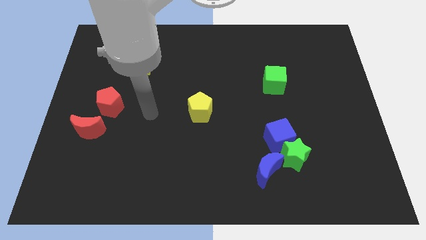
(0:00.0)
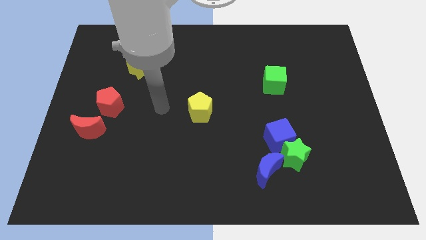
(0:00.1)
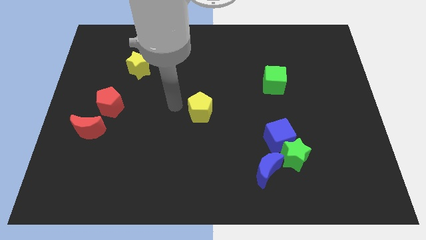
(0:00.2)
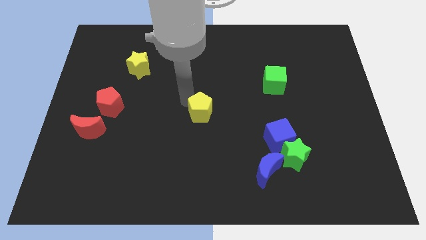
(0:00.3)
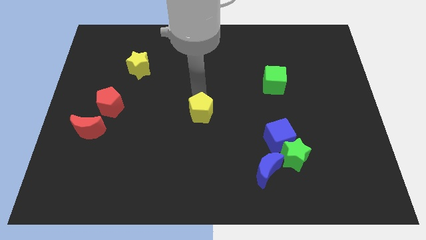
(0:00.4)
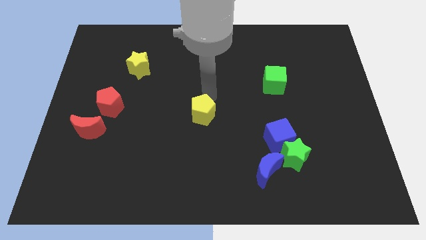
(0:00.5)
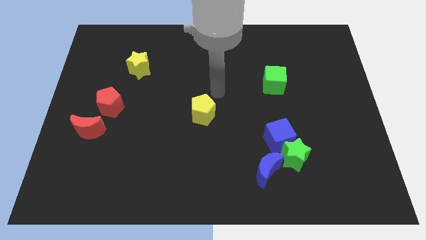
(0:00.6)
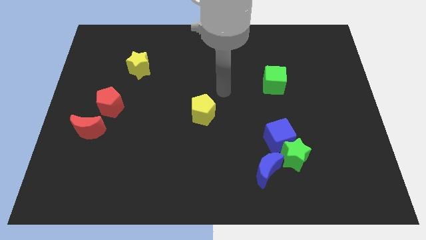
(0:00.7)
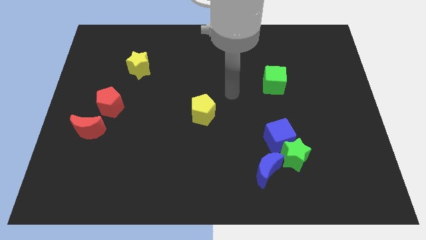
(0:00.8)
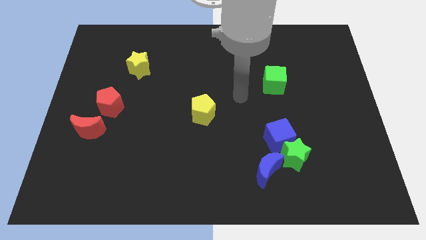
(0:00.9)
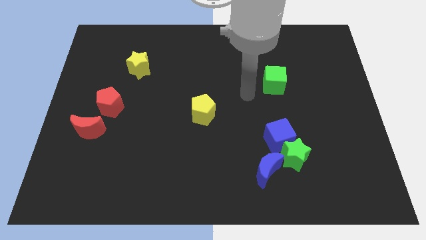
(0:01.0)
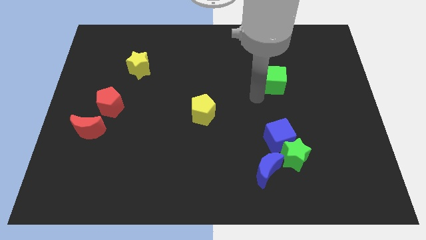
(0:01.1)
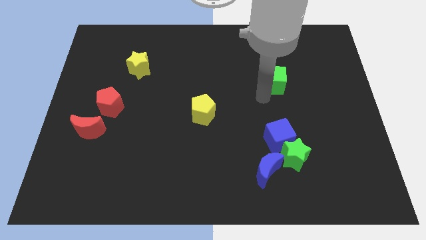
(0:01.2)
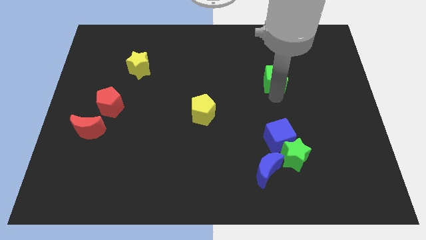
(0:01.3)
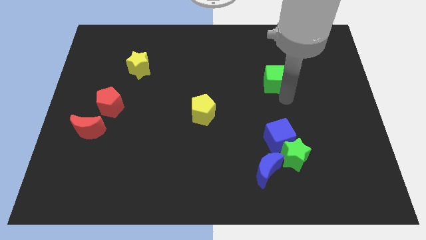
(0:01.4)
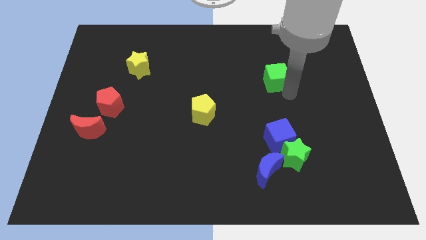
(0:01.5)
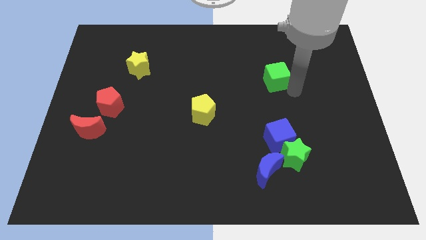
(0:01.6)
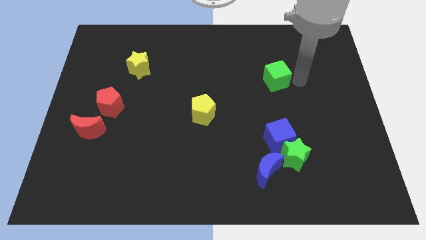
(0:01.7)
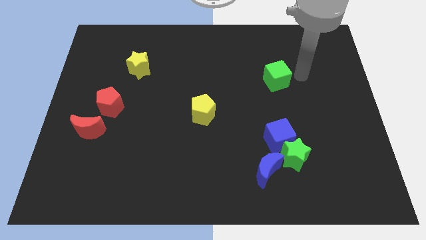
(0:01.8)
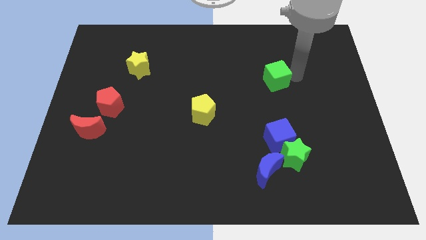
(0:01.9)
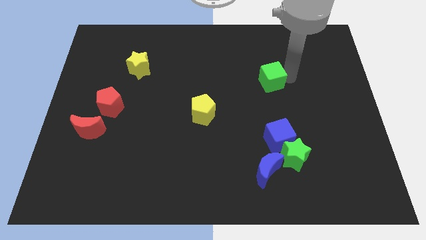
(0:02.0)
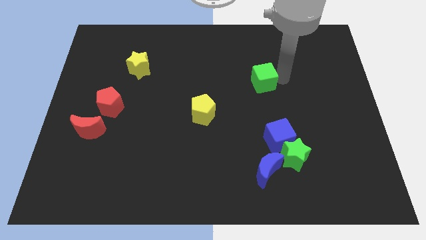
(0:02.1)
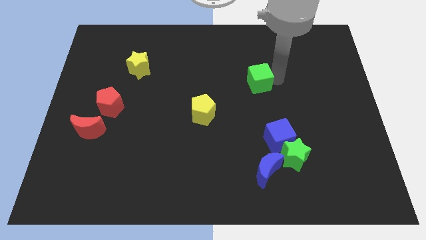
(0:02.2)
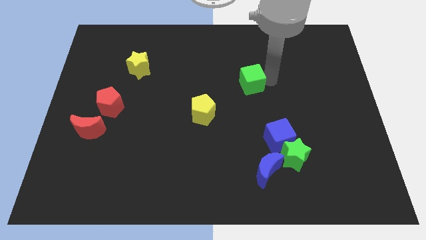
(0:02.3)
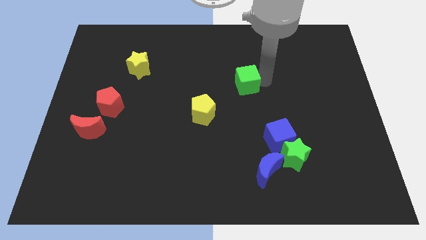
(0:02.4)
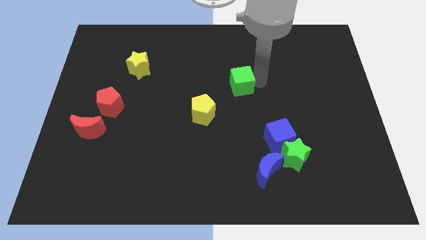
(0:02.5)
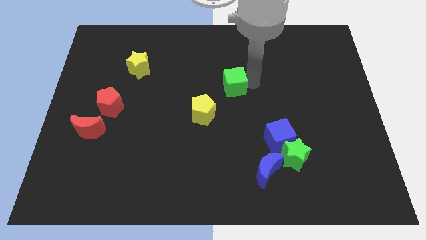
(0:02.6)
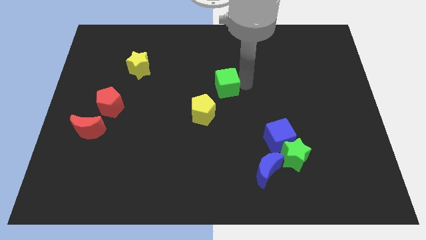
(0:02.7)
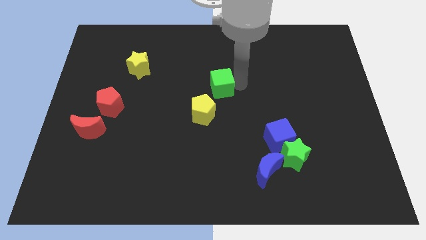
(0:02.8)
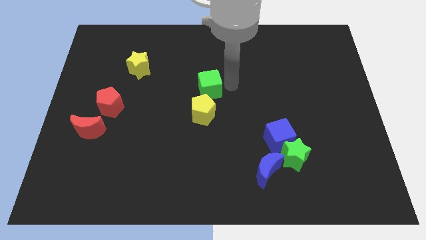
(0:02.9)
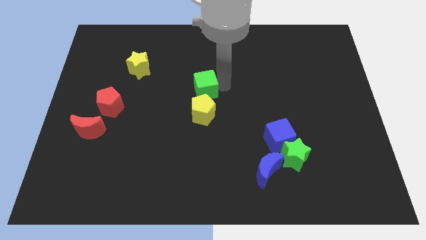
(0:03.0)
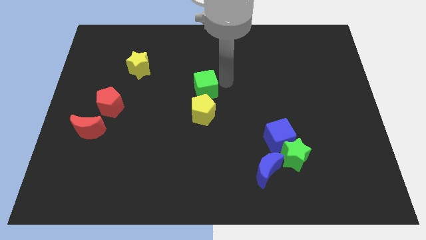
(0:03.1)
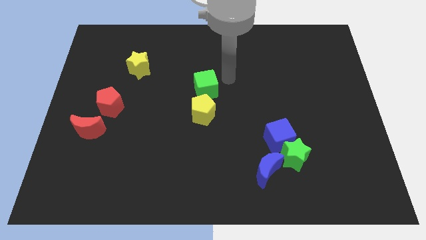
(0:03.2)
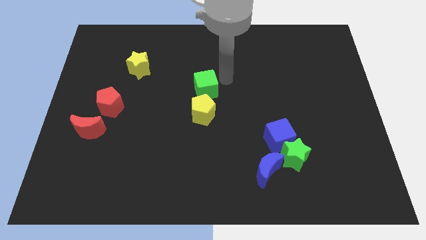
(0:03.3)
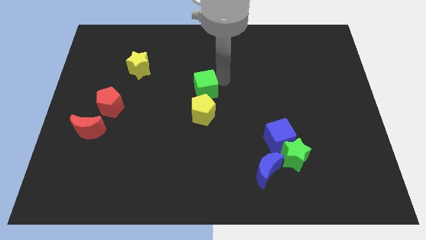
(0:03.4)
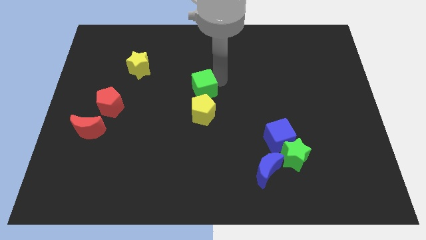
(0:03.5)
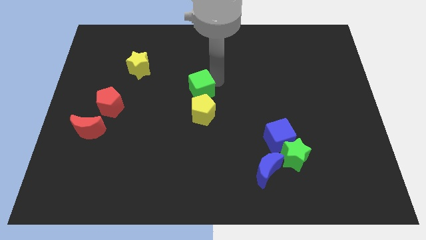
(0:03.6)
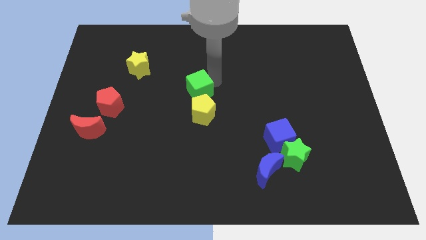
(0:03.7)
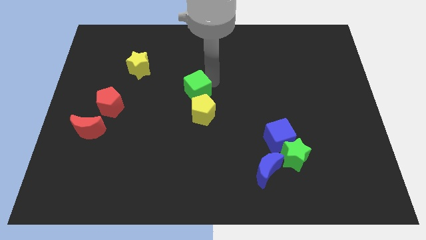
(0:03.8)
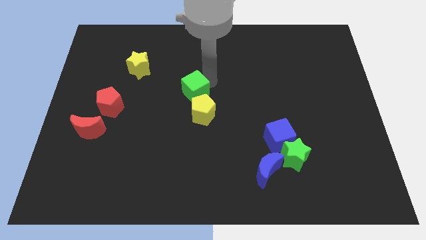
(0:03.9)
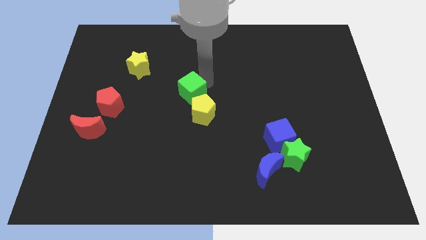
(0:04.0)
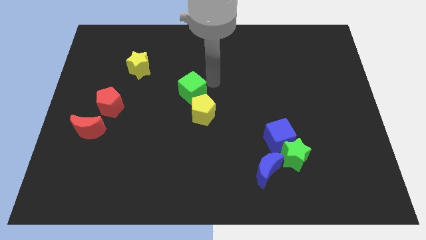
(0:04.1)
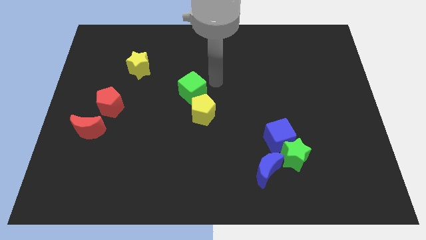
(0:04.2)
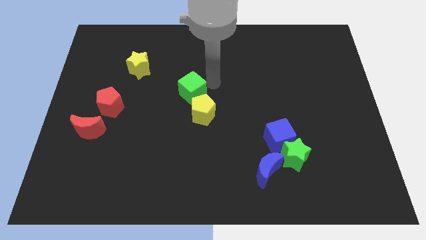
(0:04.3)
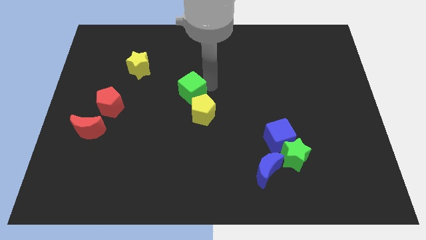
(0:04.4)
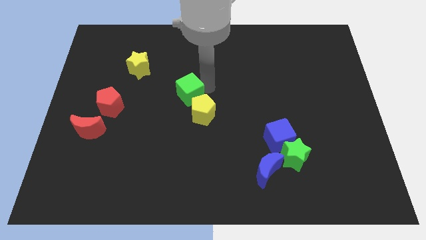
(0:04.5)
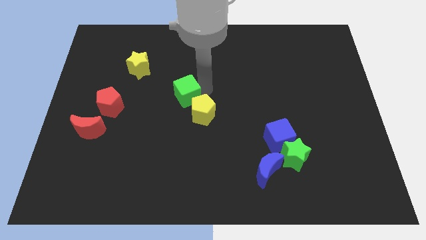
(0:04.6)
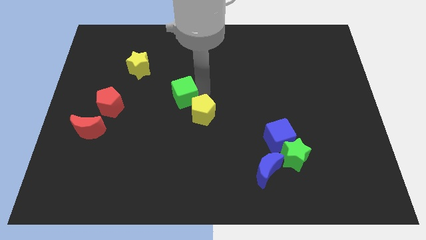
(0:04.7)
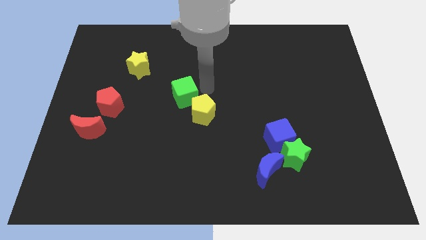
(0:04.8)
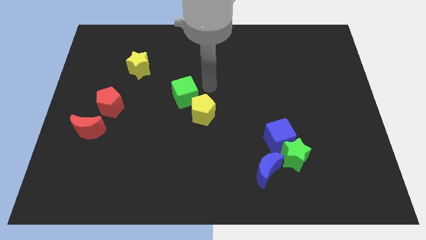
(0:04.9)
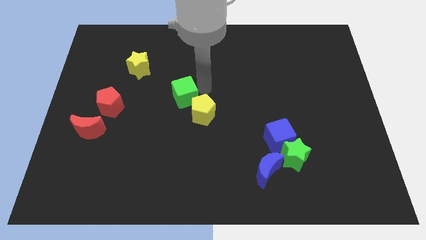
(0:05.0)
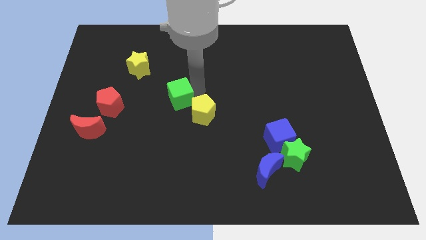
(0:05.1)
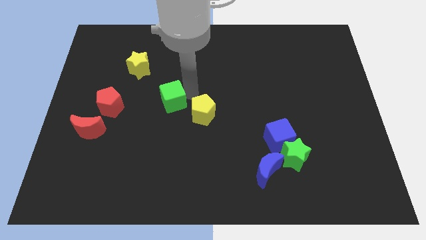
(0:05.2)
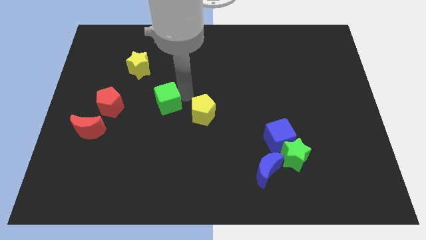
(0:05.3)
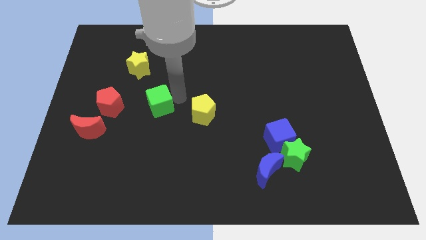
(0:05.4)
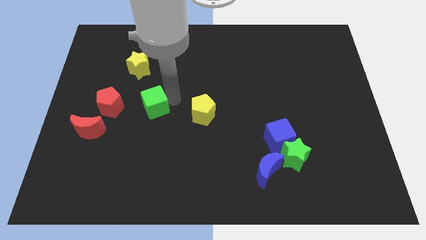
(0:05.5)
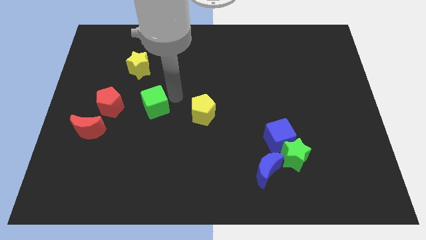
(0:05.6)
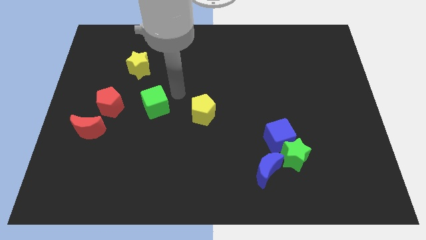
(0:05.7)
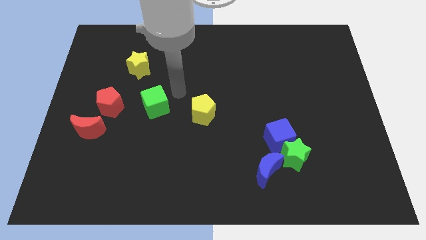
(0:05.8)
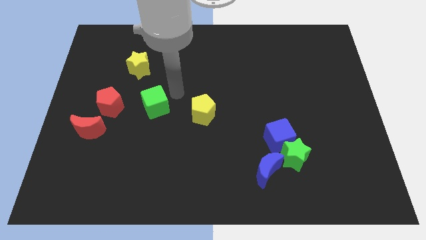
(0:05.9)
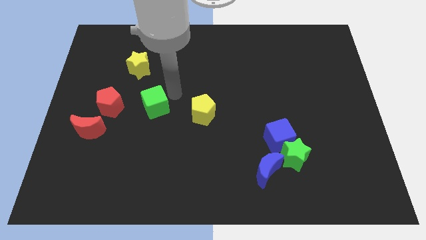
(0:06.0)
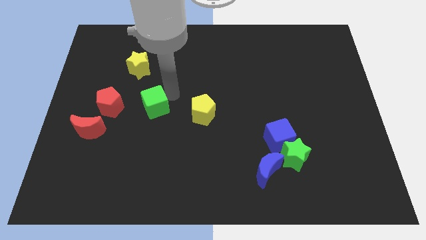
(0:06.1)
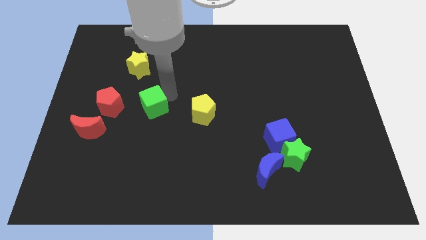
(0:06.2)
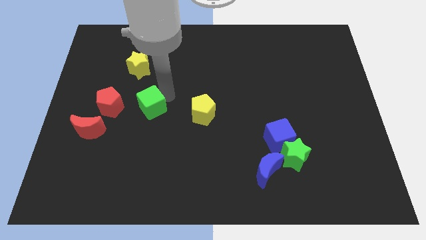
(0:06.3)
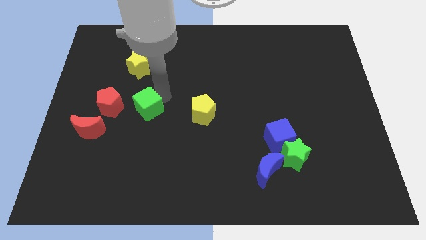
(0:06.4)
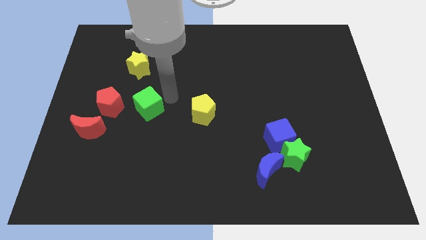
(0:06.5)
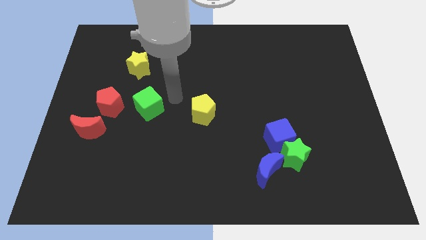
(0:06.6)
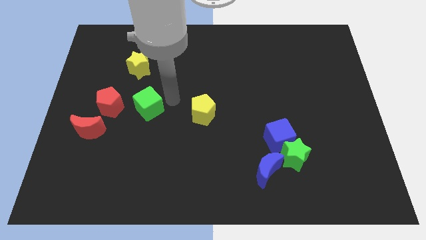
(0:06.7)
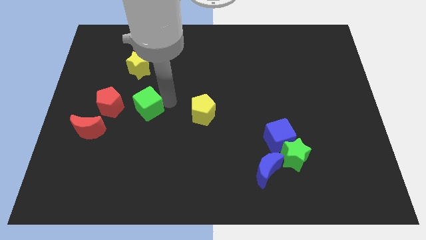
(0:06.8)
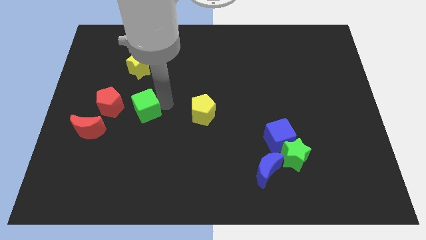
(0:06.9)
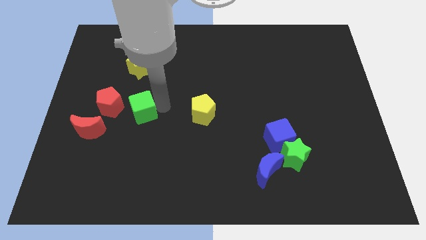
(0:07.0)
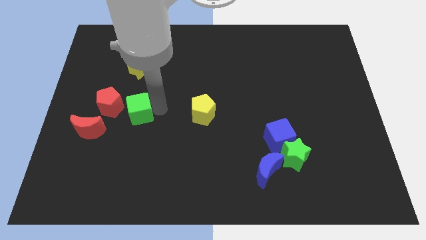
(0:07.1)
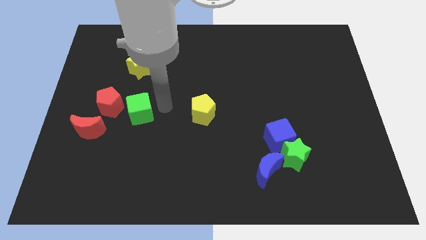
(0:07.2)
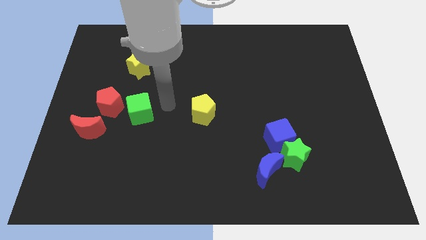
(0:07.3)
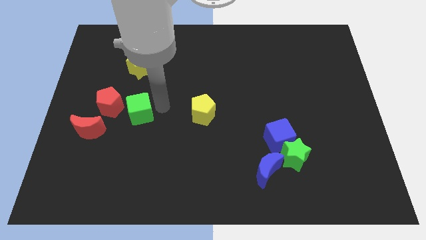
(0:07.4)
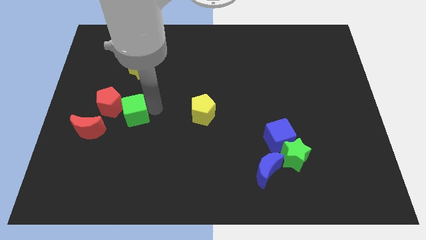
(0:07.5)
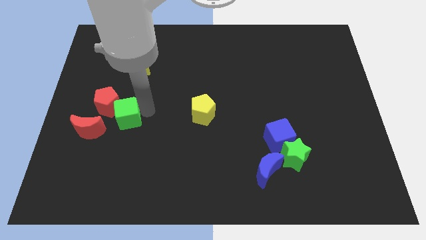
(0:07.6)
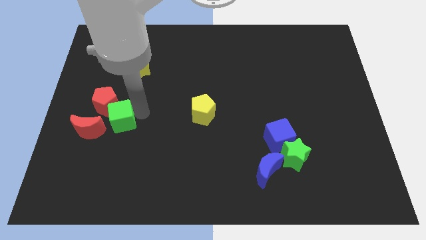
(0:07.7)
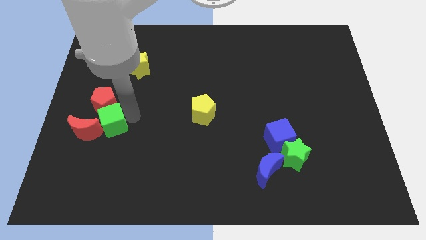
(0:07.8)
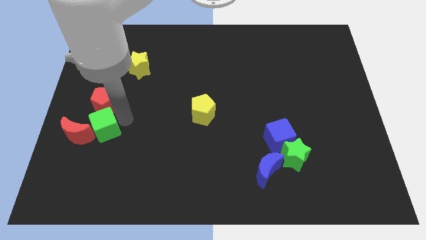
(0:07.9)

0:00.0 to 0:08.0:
move the green cube close to the red moon
